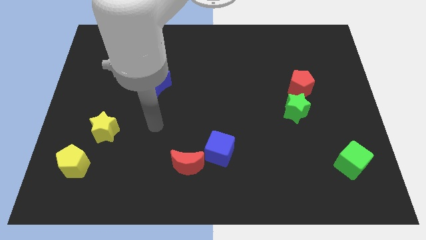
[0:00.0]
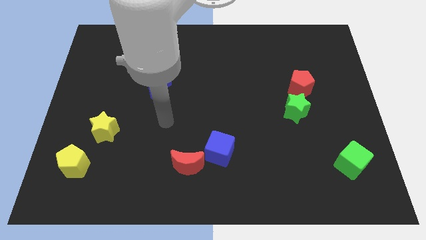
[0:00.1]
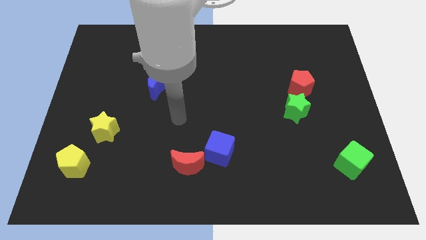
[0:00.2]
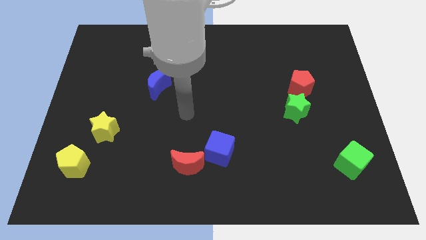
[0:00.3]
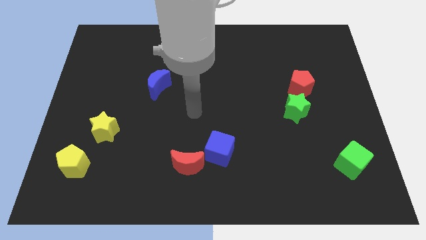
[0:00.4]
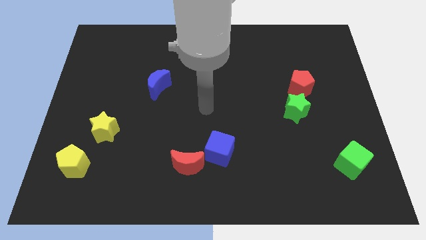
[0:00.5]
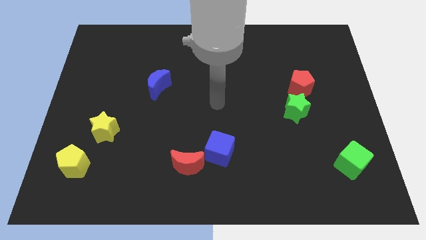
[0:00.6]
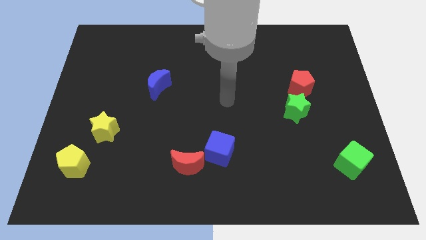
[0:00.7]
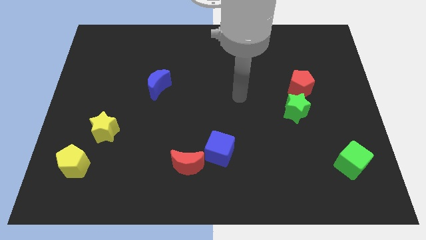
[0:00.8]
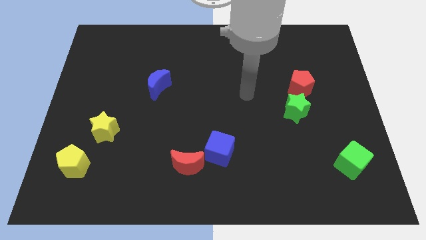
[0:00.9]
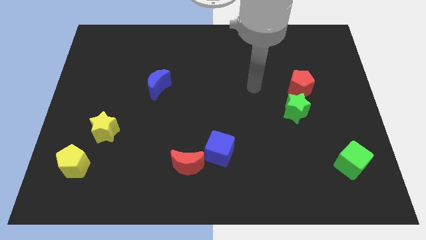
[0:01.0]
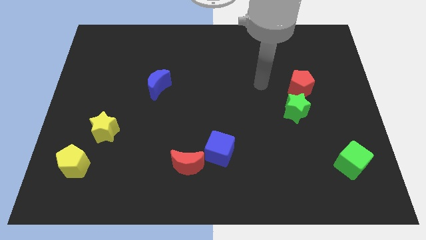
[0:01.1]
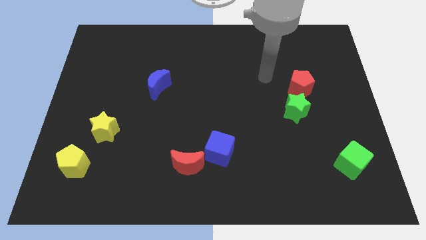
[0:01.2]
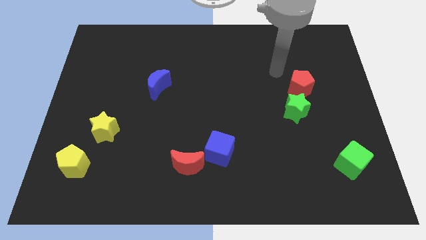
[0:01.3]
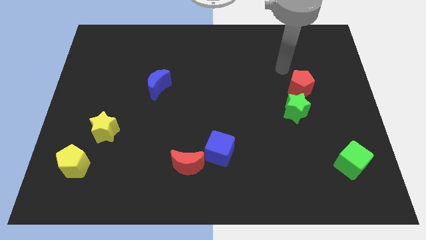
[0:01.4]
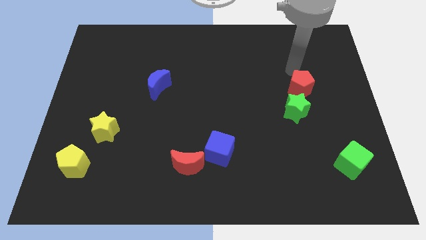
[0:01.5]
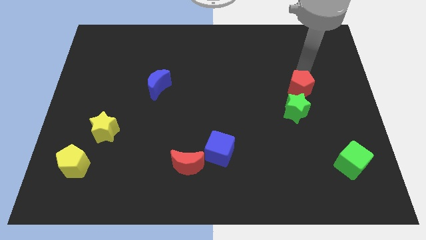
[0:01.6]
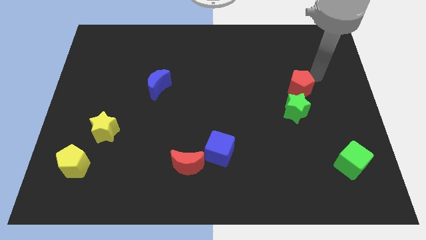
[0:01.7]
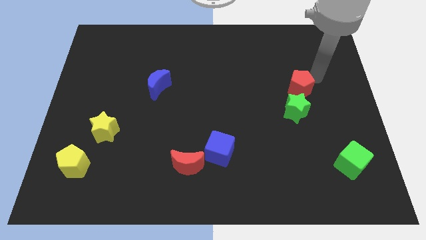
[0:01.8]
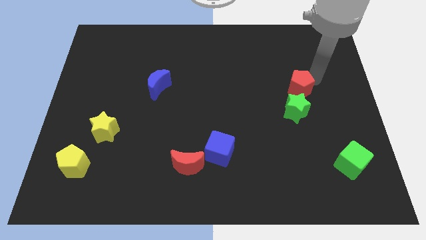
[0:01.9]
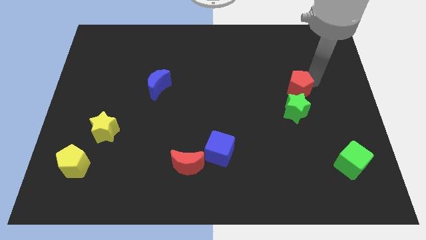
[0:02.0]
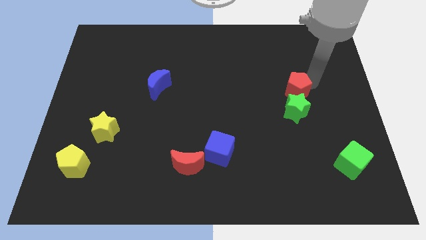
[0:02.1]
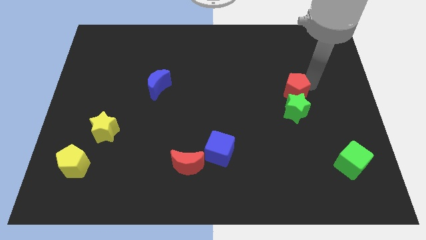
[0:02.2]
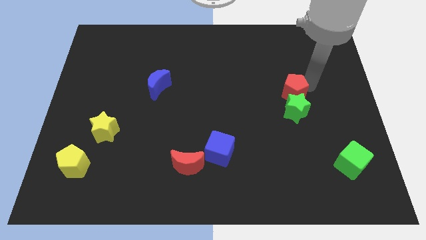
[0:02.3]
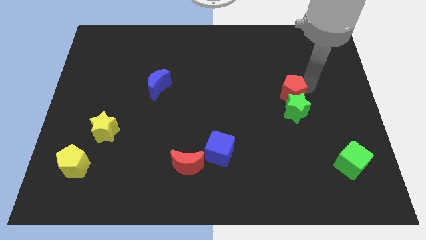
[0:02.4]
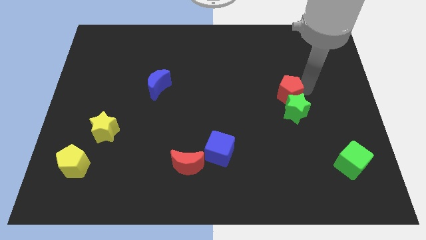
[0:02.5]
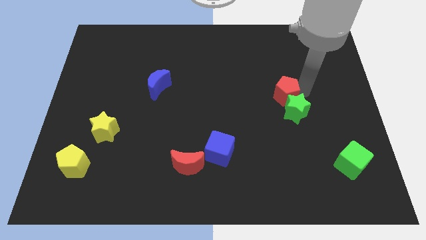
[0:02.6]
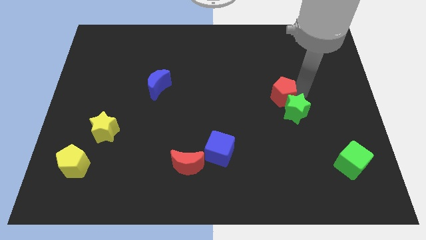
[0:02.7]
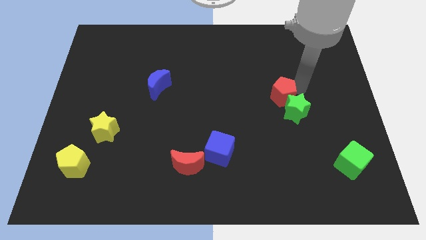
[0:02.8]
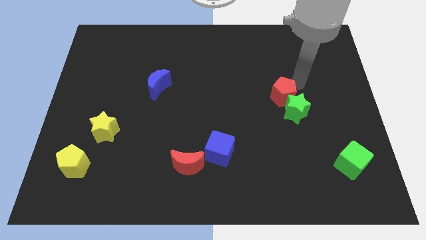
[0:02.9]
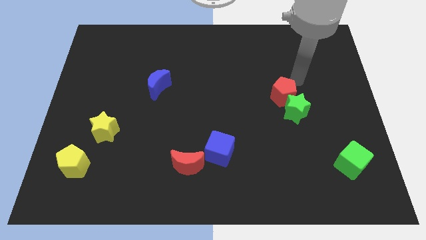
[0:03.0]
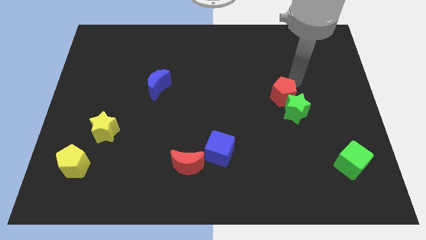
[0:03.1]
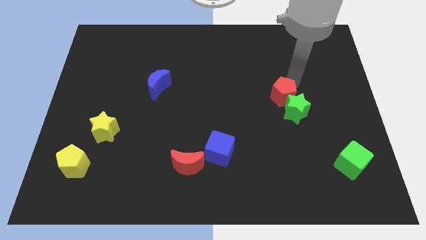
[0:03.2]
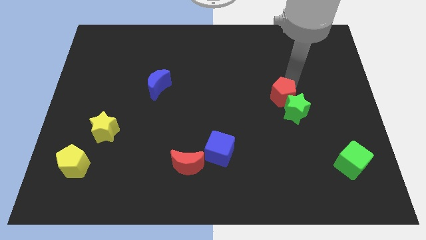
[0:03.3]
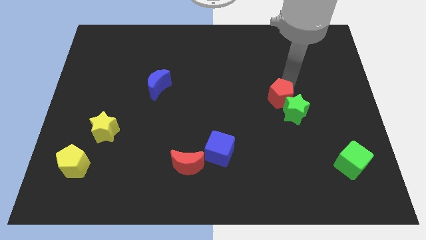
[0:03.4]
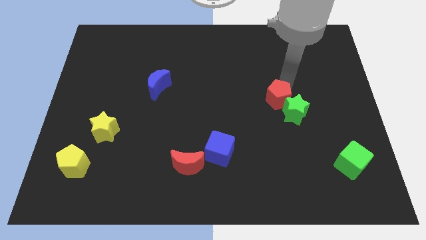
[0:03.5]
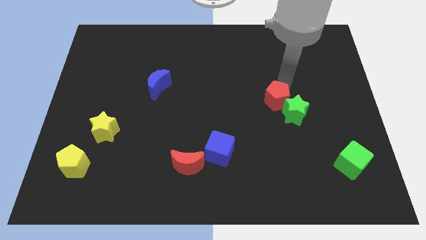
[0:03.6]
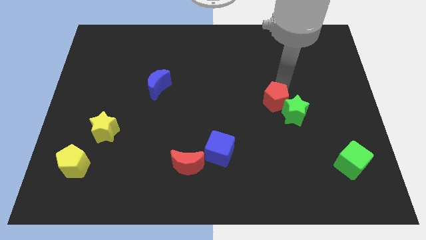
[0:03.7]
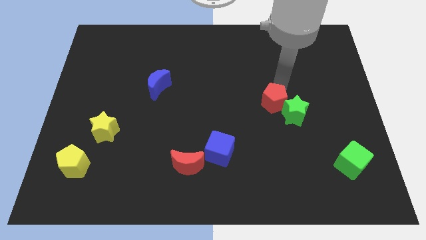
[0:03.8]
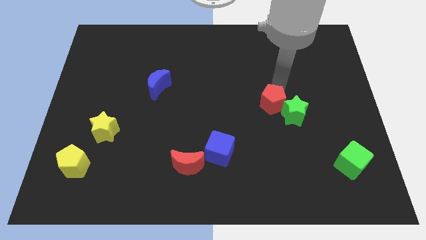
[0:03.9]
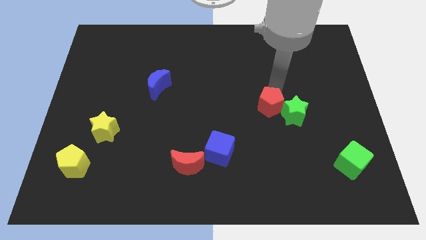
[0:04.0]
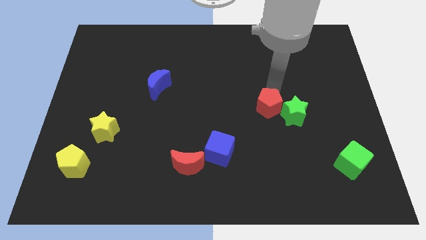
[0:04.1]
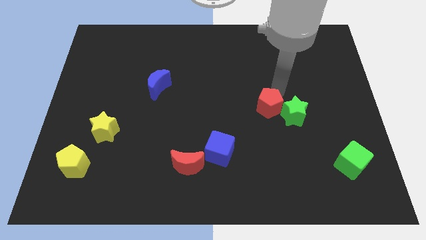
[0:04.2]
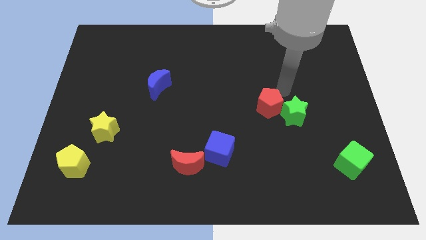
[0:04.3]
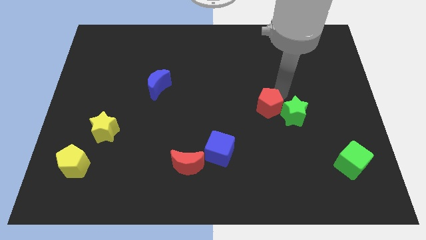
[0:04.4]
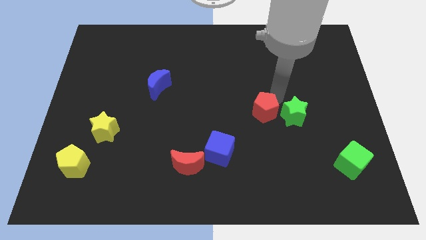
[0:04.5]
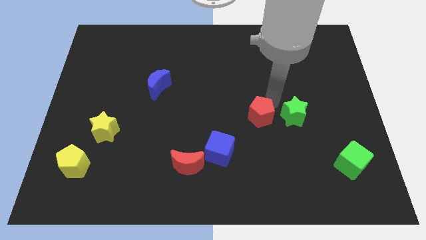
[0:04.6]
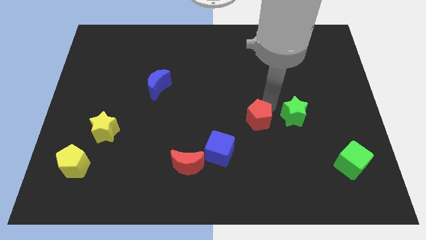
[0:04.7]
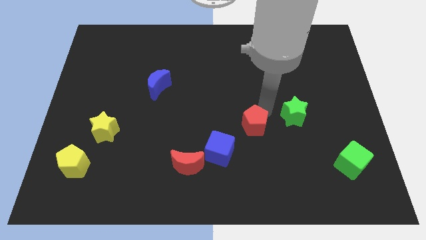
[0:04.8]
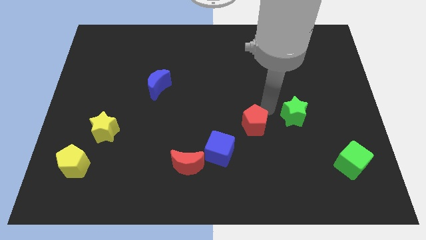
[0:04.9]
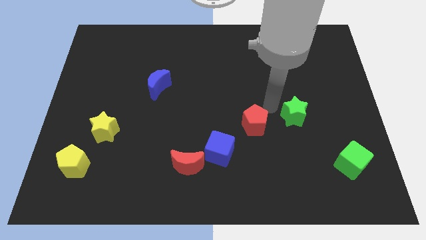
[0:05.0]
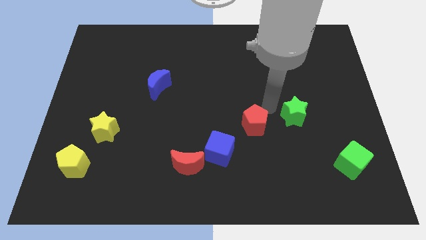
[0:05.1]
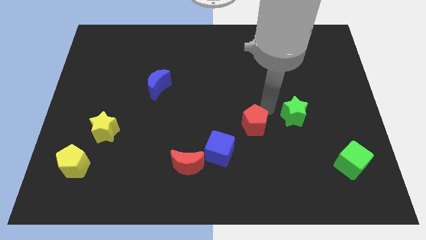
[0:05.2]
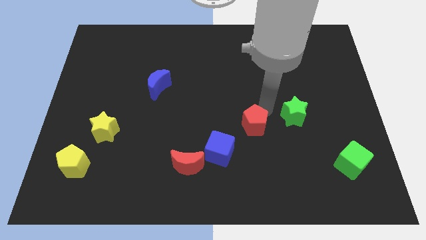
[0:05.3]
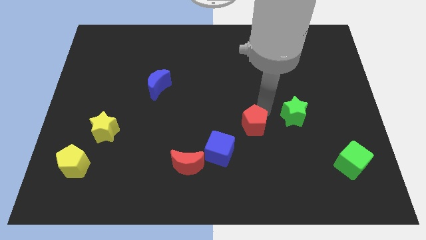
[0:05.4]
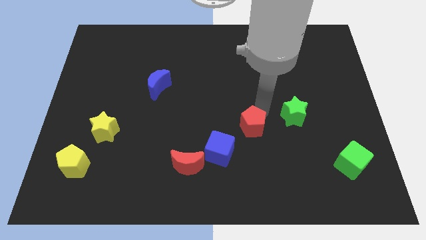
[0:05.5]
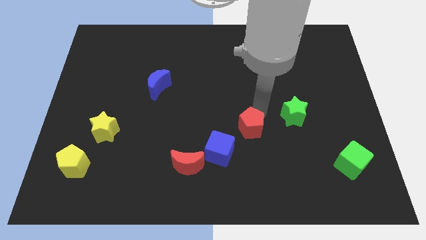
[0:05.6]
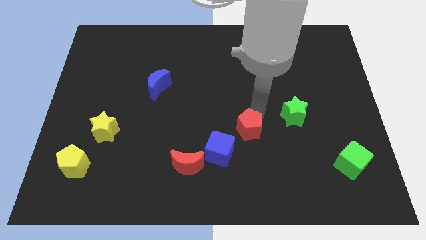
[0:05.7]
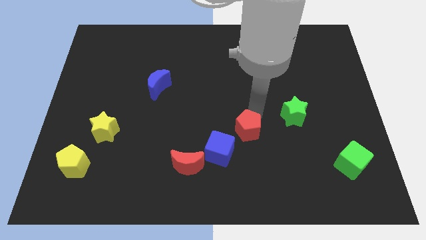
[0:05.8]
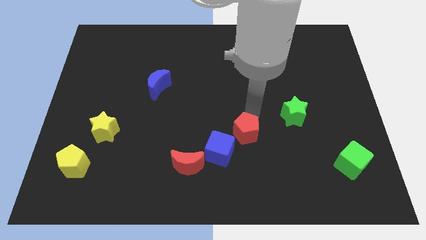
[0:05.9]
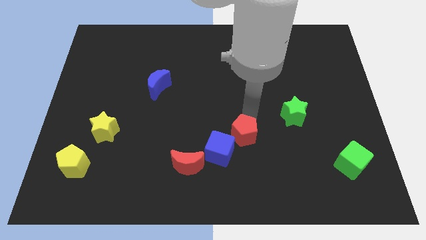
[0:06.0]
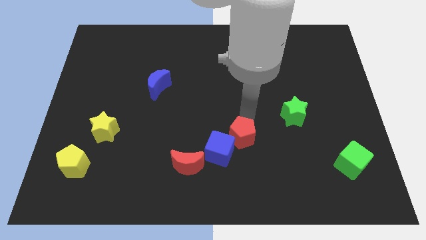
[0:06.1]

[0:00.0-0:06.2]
put the red pentagon to the blue cube

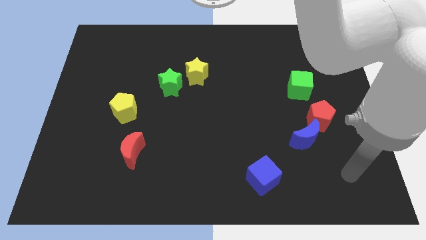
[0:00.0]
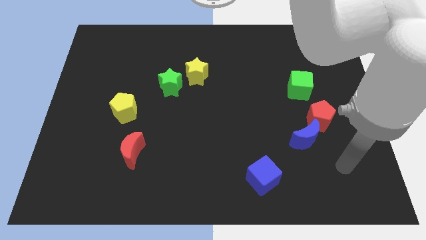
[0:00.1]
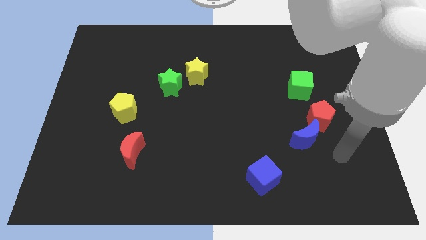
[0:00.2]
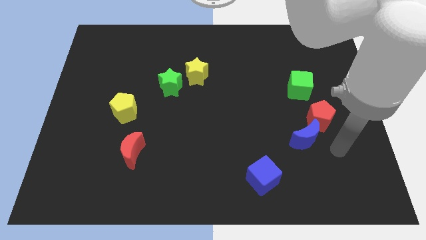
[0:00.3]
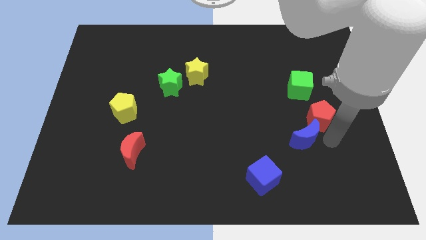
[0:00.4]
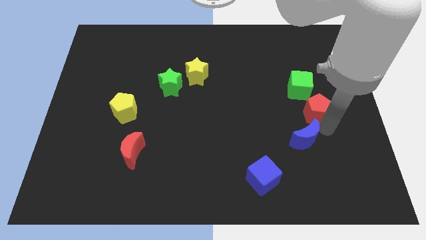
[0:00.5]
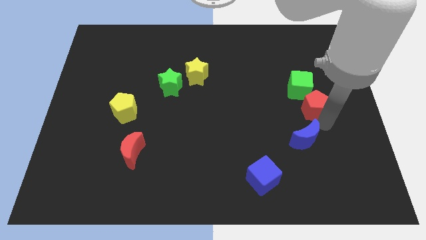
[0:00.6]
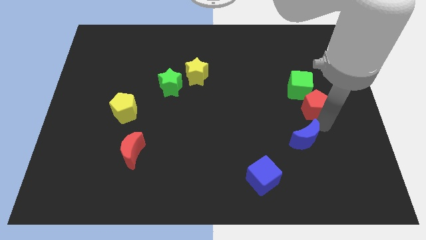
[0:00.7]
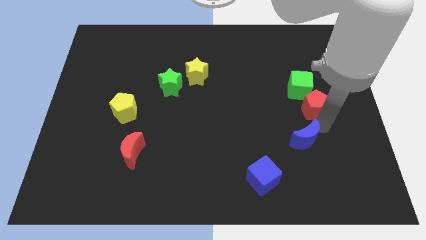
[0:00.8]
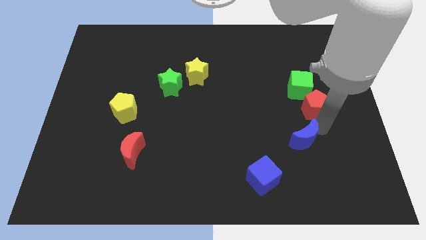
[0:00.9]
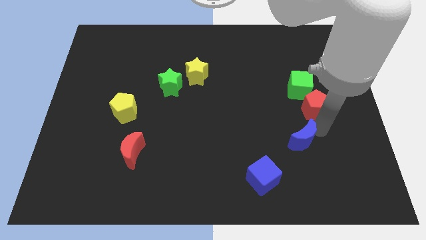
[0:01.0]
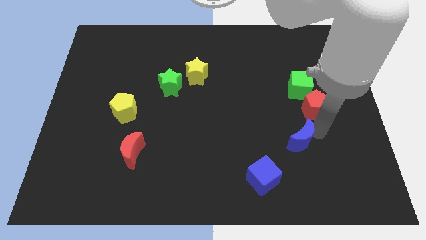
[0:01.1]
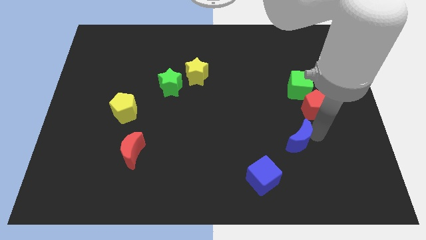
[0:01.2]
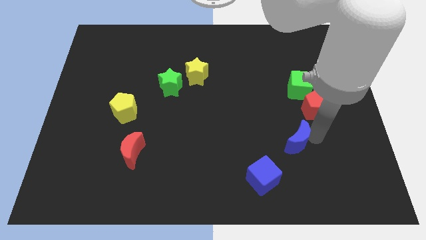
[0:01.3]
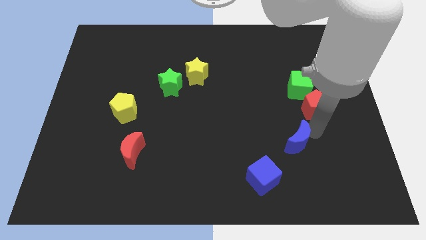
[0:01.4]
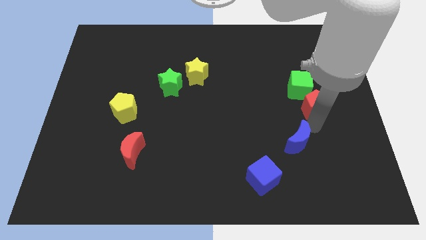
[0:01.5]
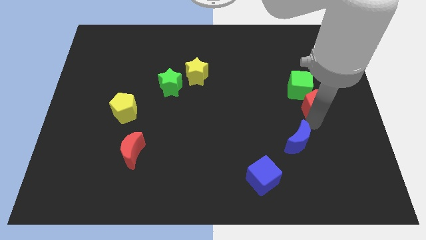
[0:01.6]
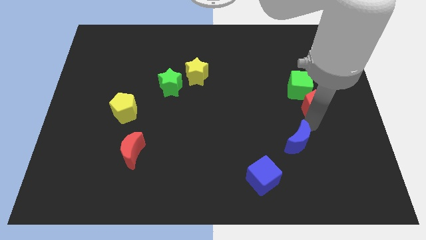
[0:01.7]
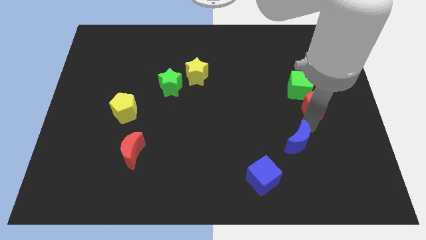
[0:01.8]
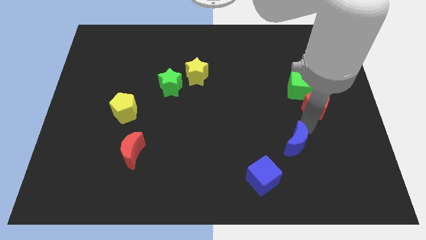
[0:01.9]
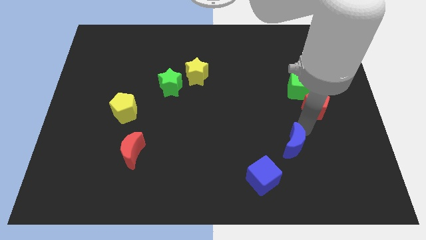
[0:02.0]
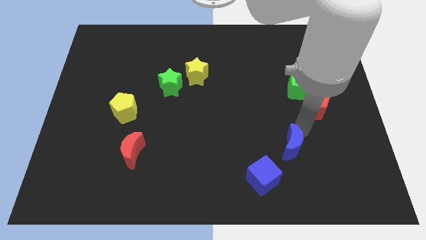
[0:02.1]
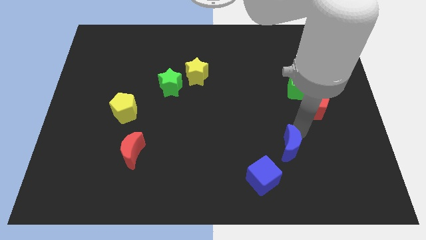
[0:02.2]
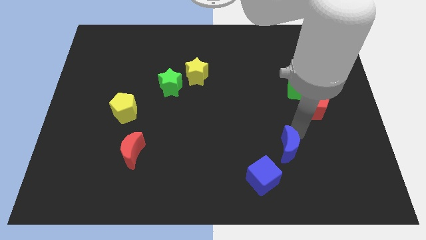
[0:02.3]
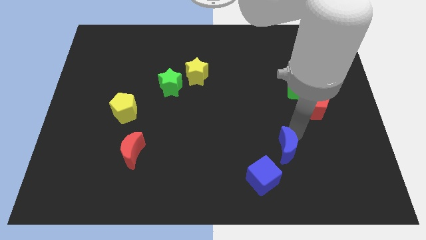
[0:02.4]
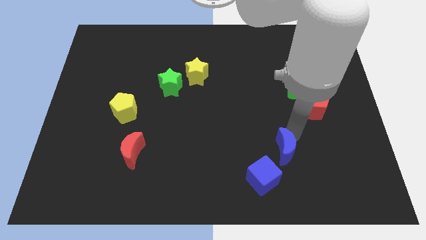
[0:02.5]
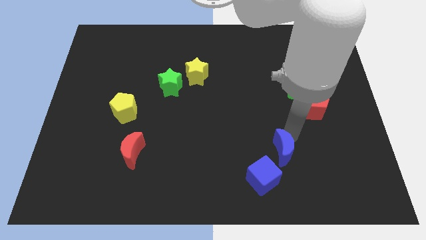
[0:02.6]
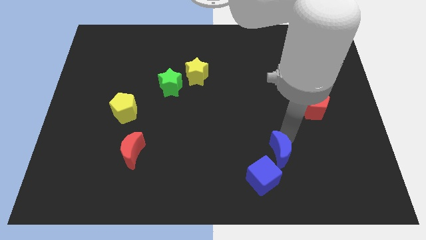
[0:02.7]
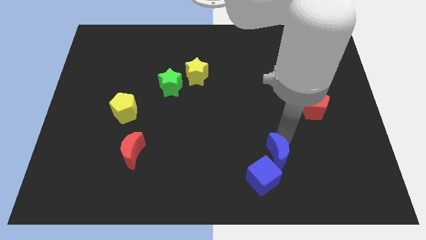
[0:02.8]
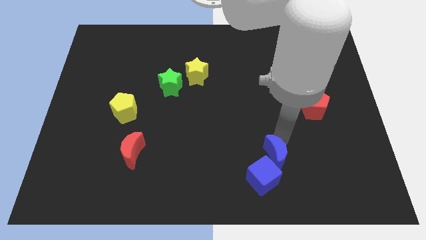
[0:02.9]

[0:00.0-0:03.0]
put the blue moon towards the blue cube
